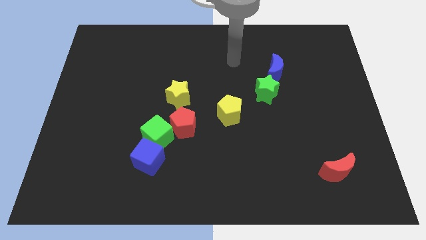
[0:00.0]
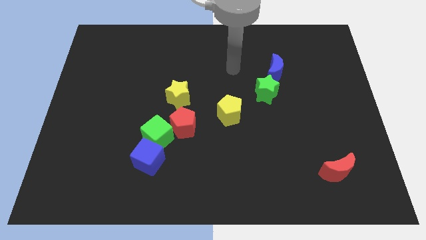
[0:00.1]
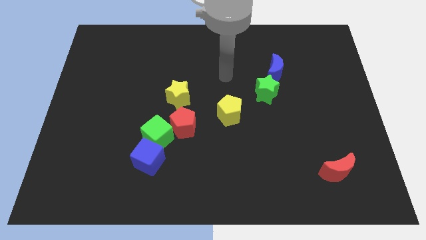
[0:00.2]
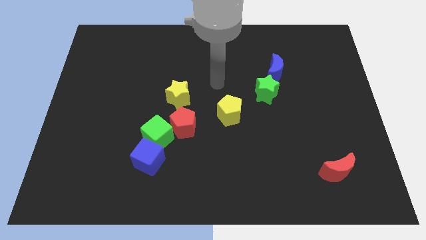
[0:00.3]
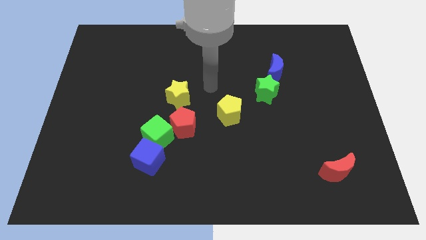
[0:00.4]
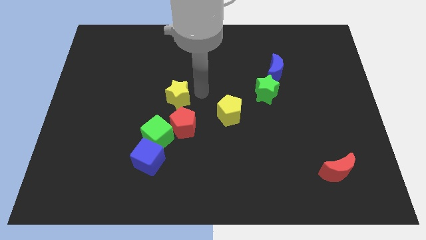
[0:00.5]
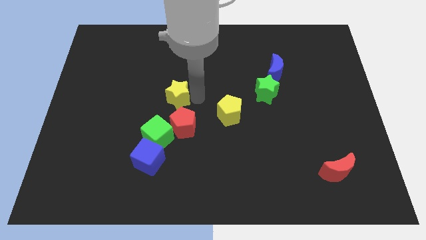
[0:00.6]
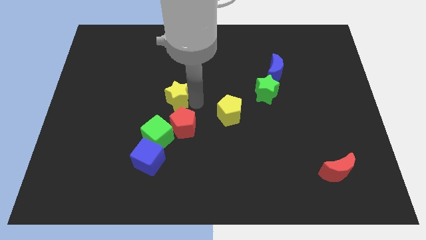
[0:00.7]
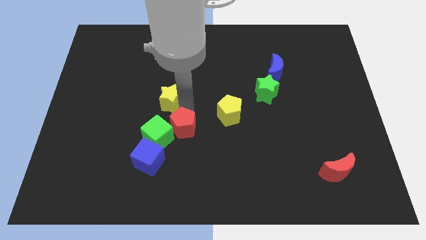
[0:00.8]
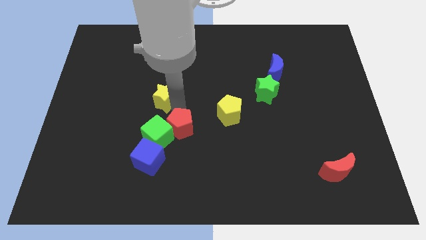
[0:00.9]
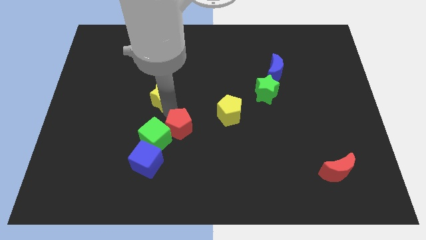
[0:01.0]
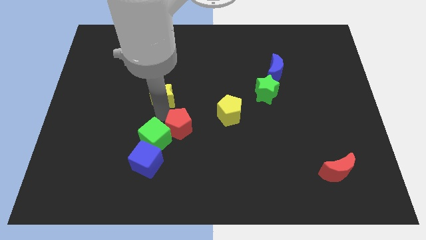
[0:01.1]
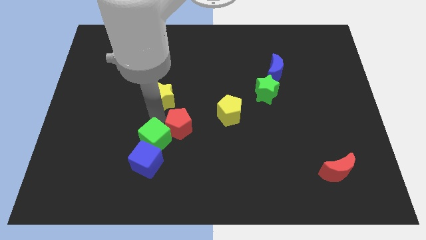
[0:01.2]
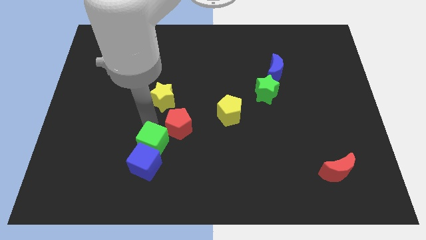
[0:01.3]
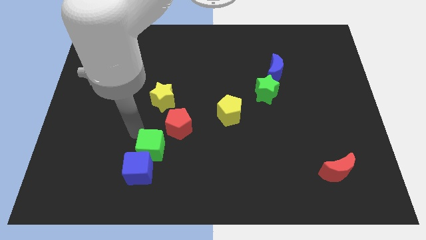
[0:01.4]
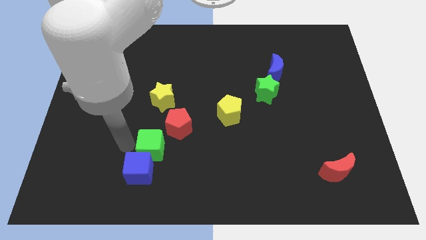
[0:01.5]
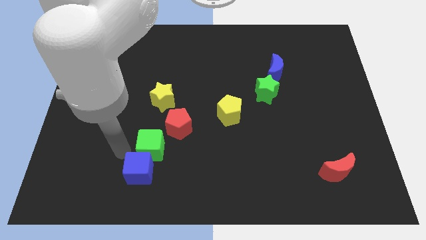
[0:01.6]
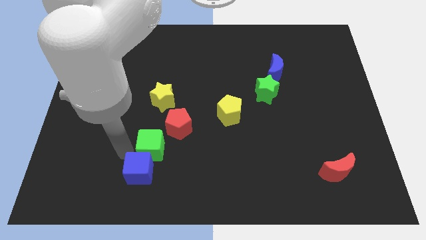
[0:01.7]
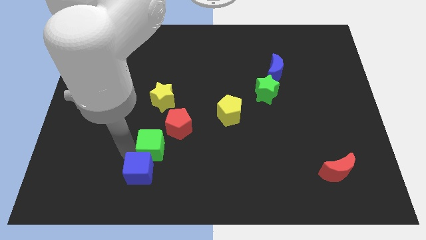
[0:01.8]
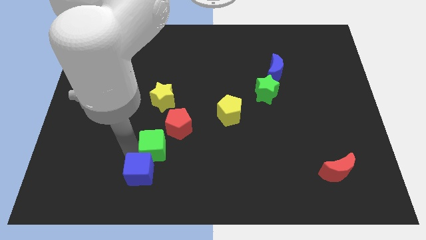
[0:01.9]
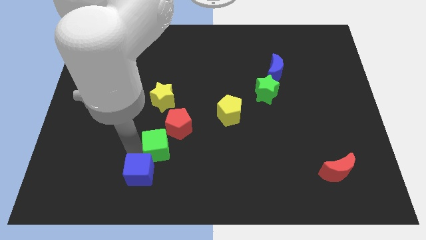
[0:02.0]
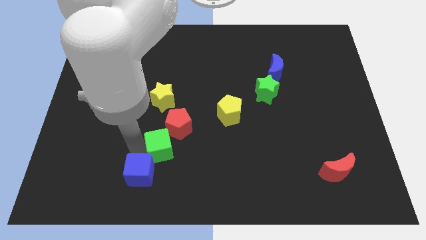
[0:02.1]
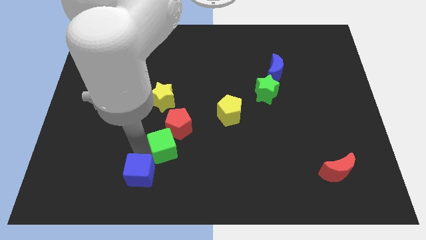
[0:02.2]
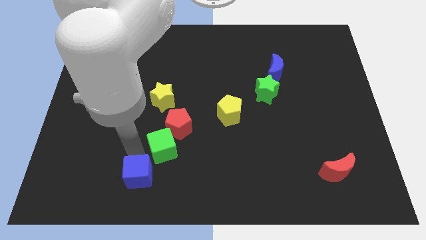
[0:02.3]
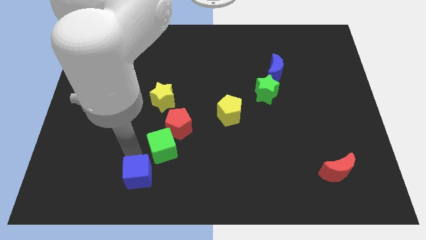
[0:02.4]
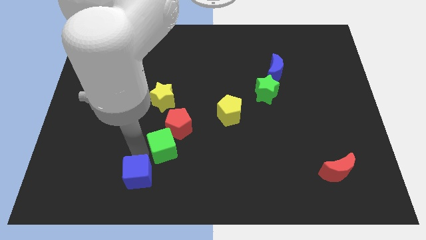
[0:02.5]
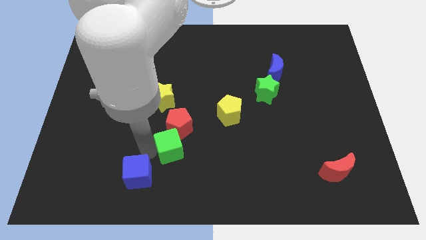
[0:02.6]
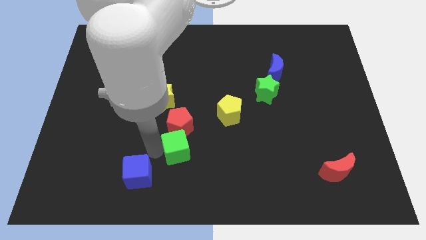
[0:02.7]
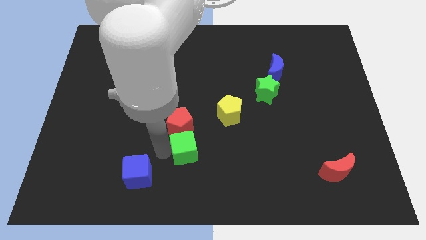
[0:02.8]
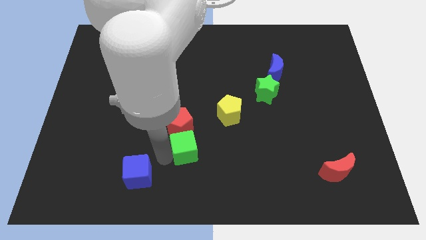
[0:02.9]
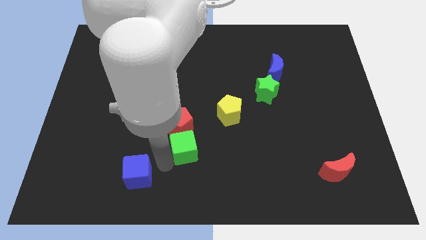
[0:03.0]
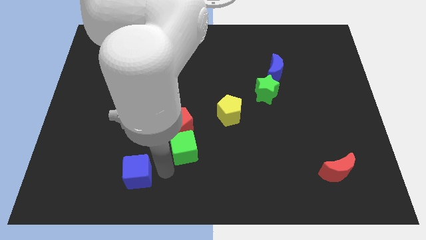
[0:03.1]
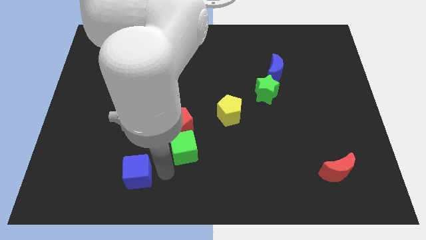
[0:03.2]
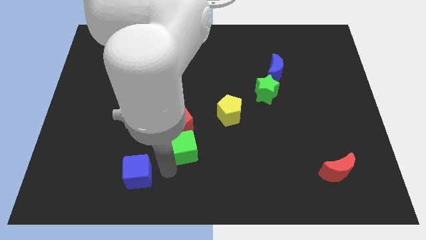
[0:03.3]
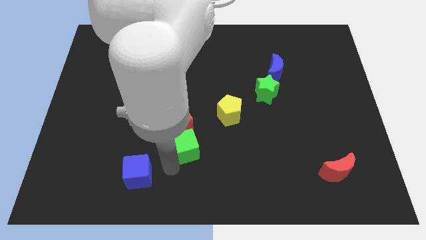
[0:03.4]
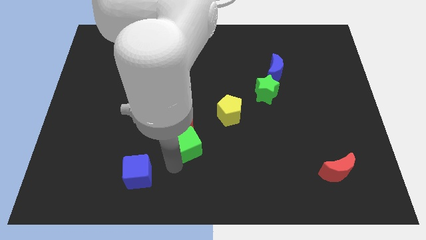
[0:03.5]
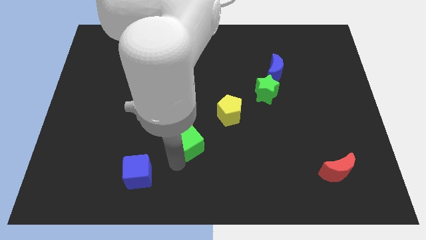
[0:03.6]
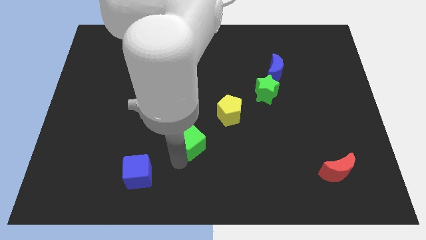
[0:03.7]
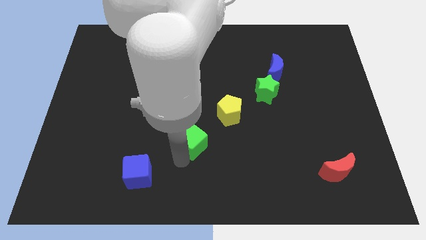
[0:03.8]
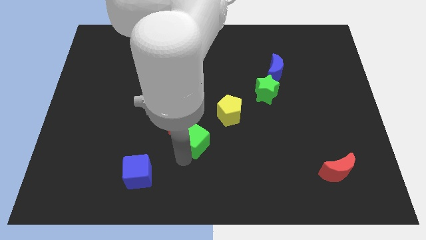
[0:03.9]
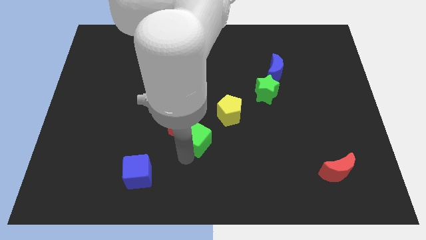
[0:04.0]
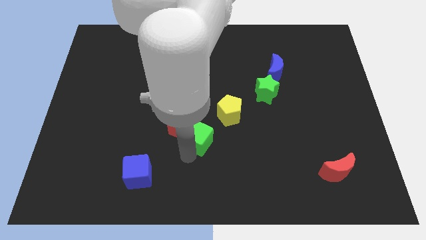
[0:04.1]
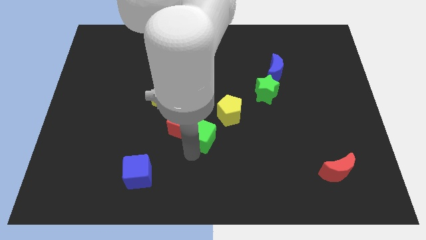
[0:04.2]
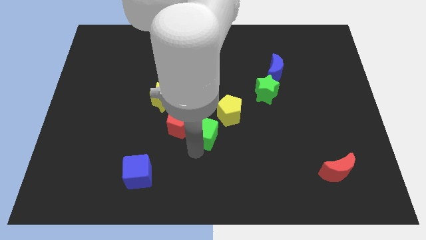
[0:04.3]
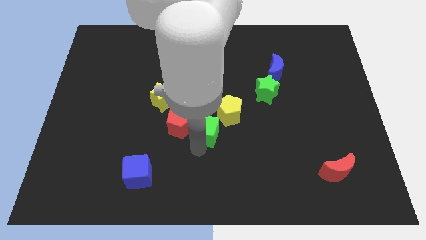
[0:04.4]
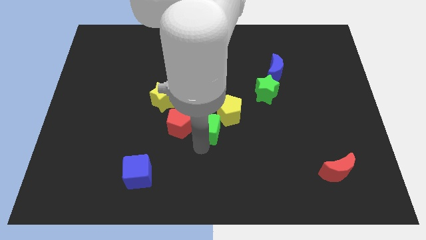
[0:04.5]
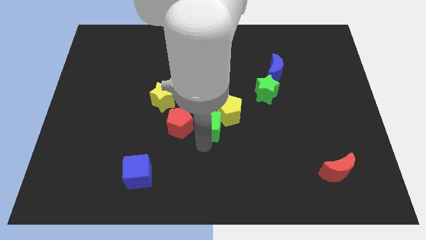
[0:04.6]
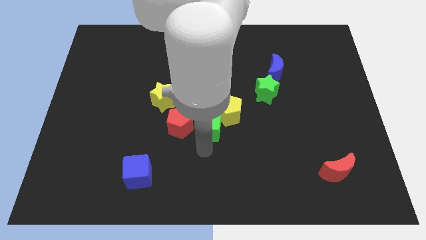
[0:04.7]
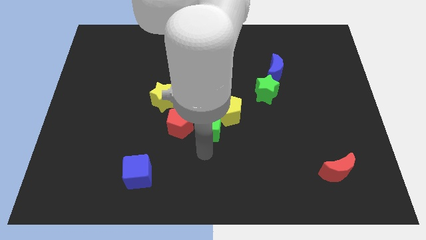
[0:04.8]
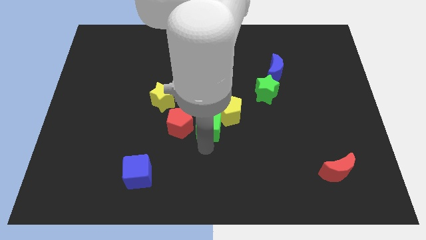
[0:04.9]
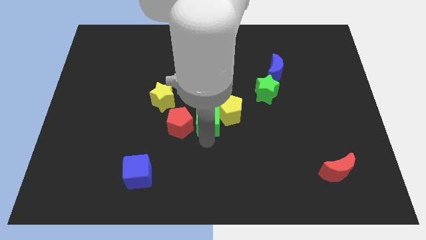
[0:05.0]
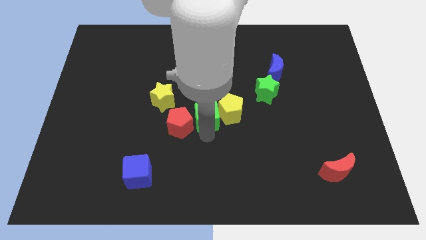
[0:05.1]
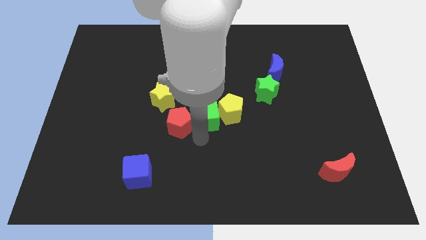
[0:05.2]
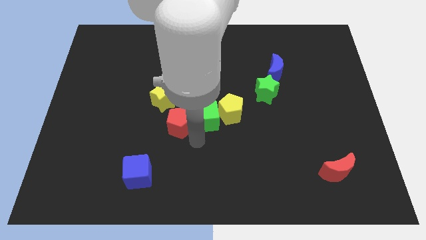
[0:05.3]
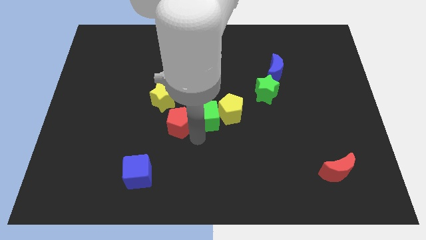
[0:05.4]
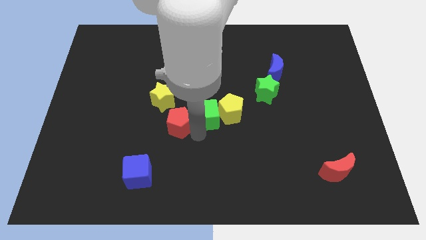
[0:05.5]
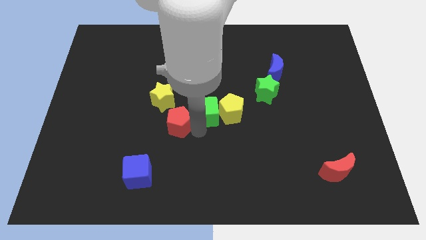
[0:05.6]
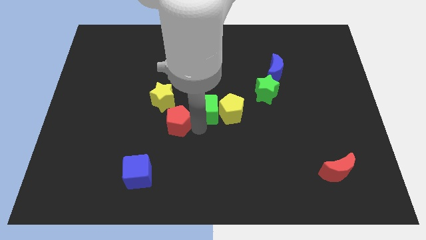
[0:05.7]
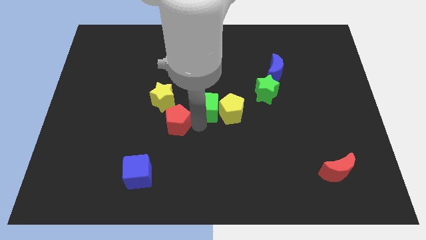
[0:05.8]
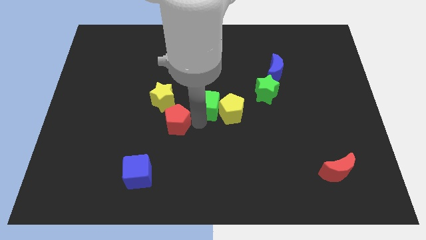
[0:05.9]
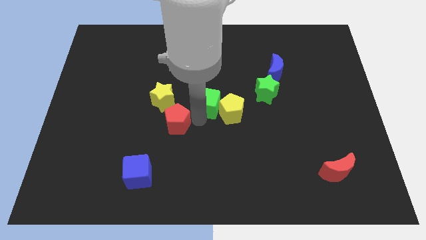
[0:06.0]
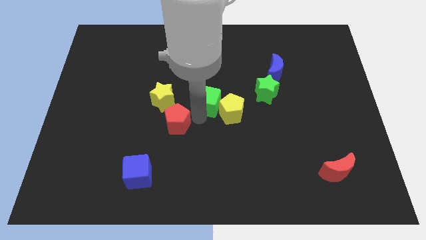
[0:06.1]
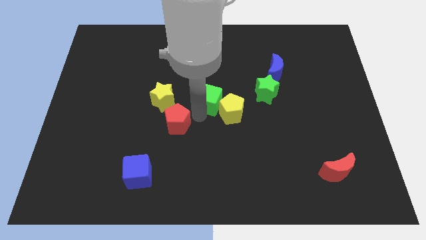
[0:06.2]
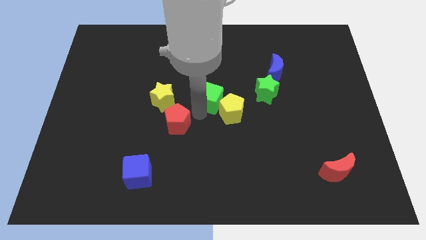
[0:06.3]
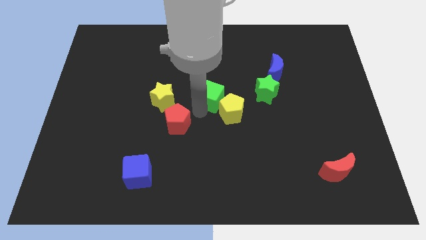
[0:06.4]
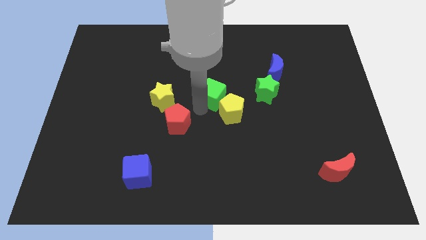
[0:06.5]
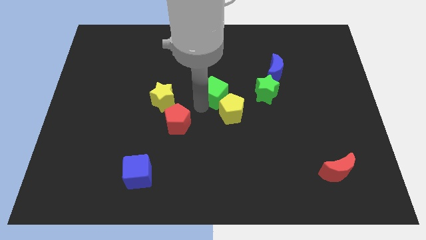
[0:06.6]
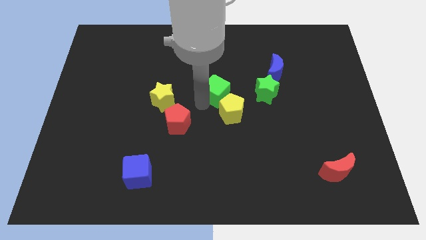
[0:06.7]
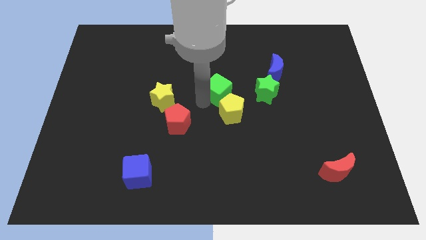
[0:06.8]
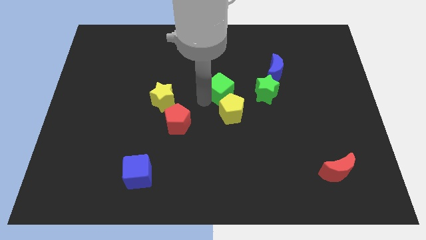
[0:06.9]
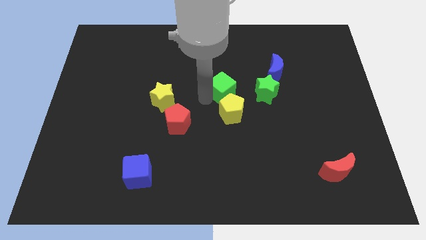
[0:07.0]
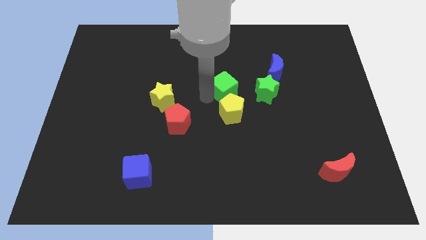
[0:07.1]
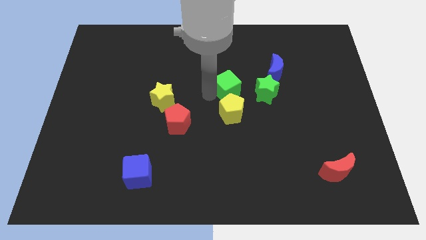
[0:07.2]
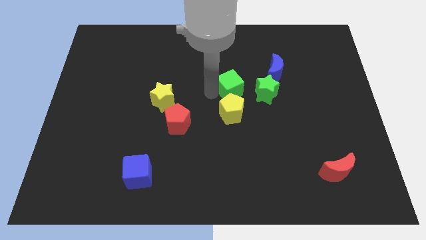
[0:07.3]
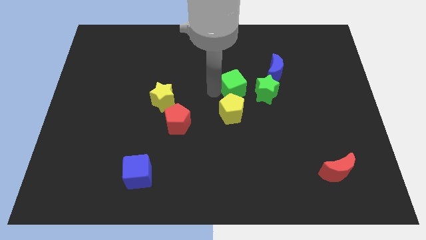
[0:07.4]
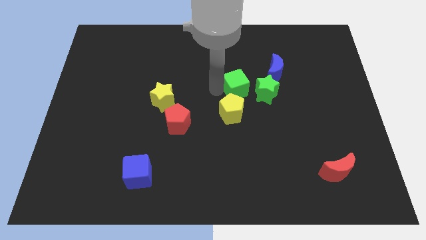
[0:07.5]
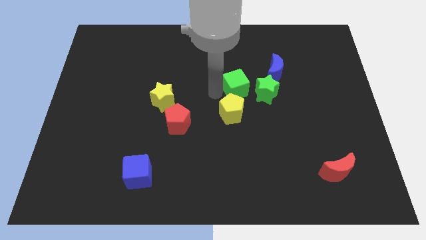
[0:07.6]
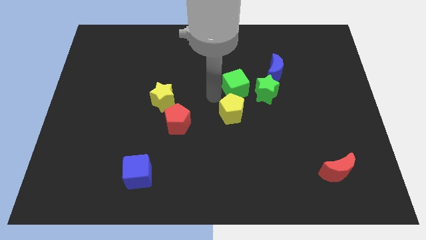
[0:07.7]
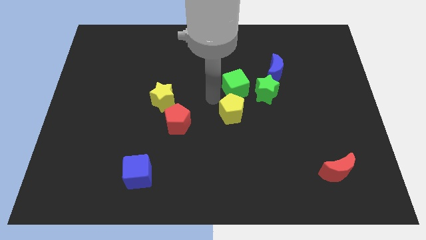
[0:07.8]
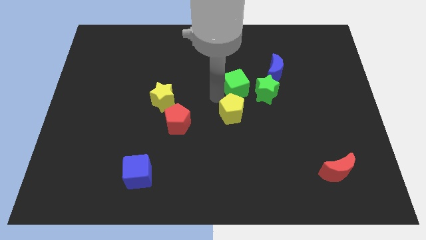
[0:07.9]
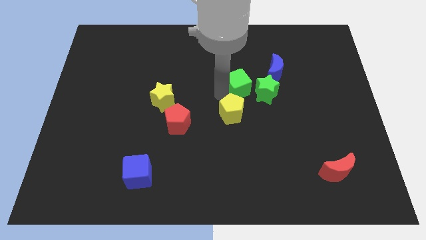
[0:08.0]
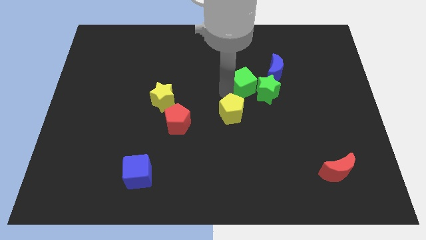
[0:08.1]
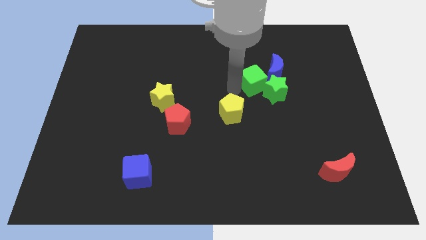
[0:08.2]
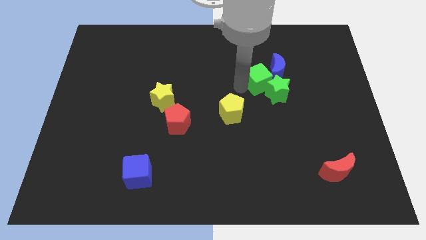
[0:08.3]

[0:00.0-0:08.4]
slide the green cube towards the blue moon
